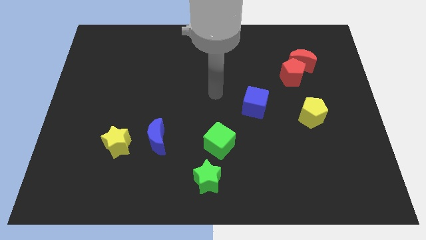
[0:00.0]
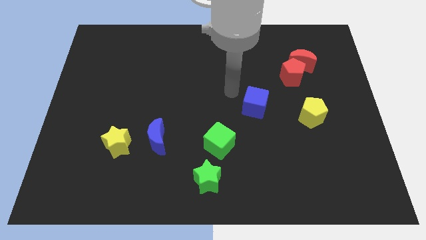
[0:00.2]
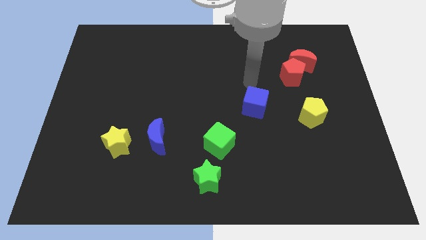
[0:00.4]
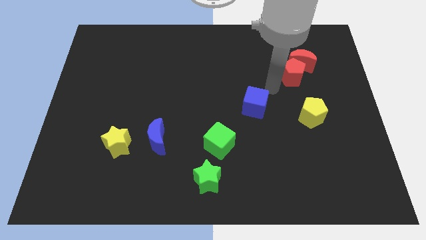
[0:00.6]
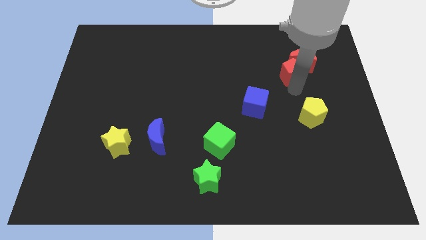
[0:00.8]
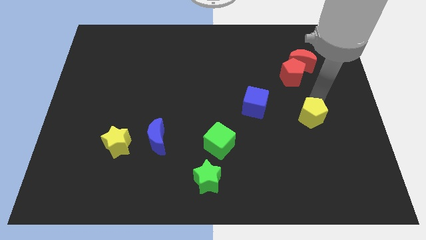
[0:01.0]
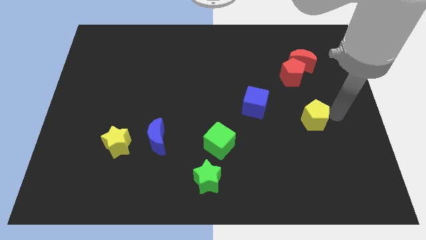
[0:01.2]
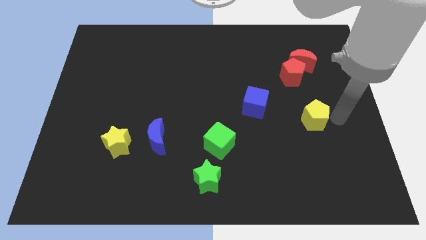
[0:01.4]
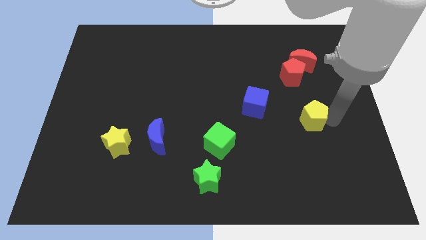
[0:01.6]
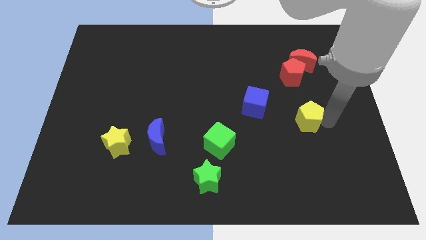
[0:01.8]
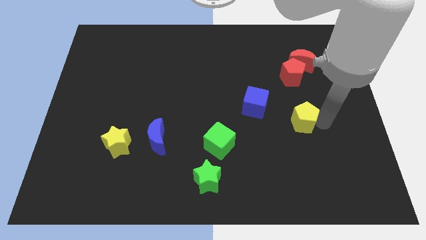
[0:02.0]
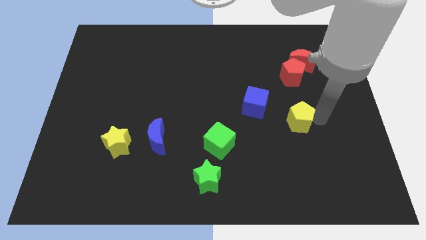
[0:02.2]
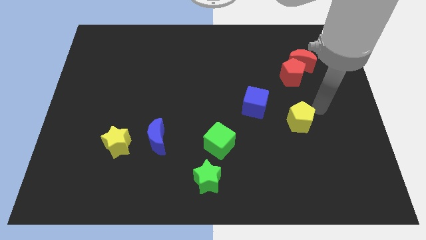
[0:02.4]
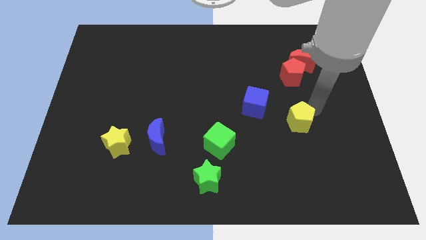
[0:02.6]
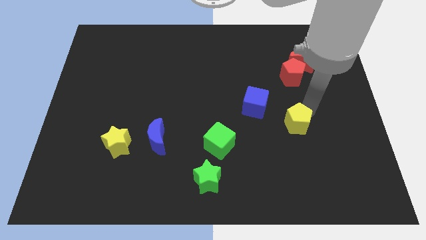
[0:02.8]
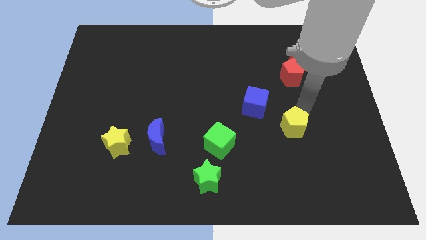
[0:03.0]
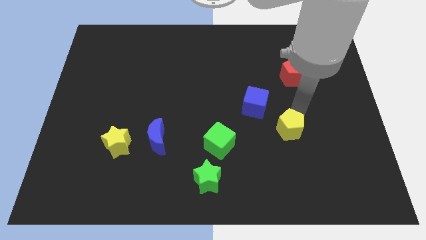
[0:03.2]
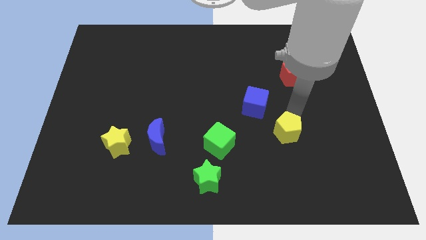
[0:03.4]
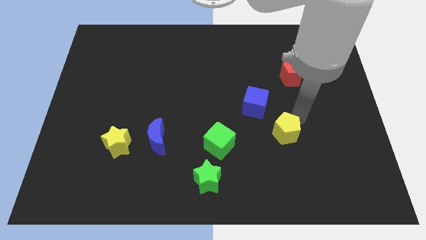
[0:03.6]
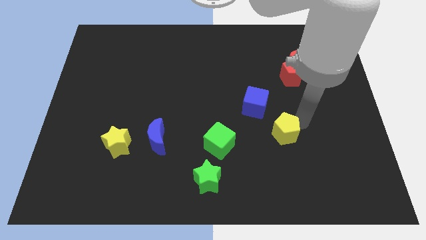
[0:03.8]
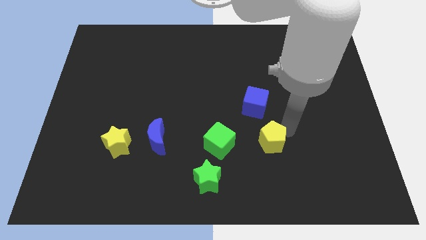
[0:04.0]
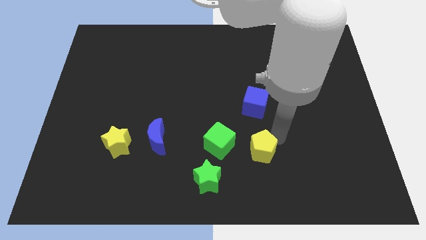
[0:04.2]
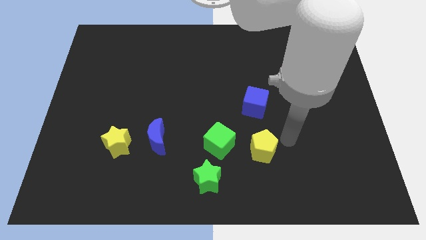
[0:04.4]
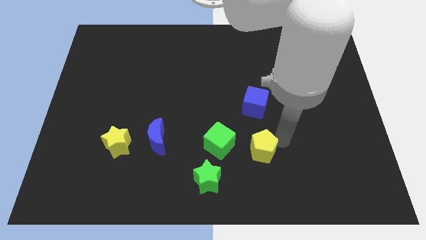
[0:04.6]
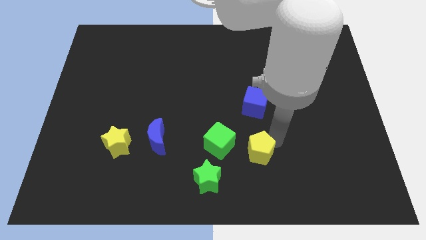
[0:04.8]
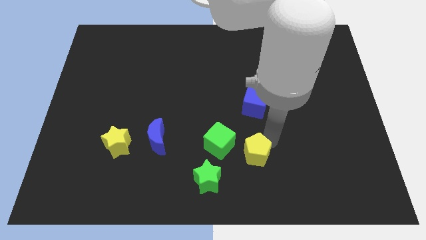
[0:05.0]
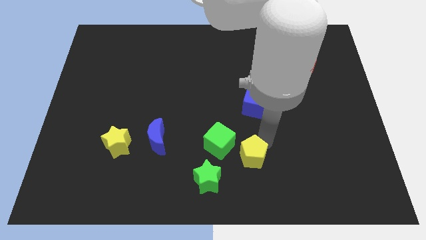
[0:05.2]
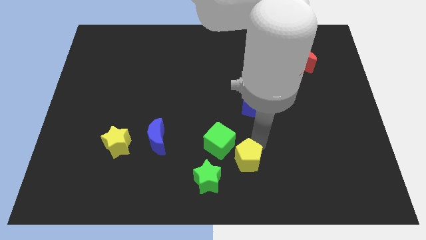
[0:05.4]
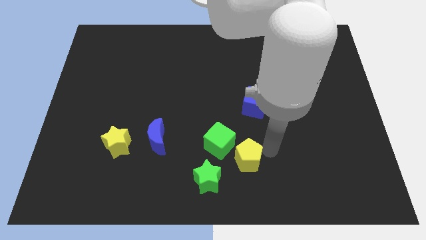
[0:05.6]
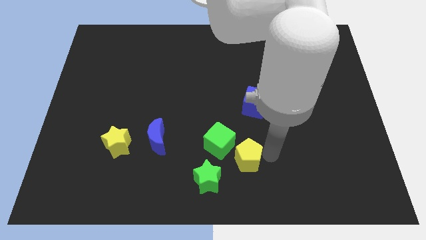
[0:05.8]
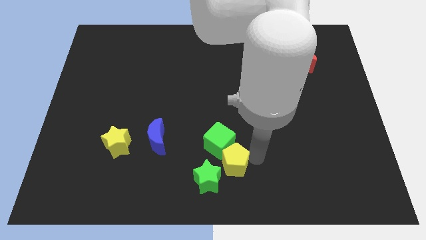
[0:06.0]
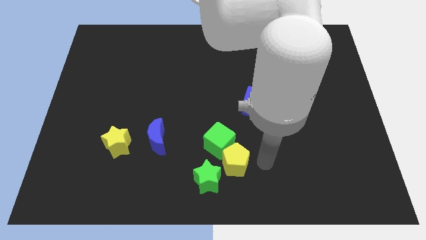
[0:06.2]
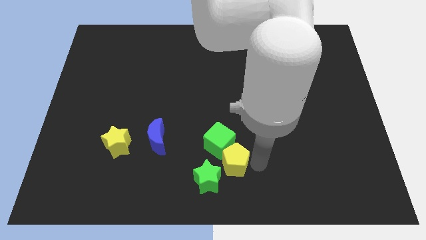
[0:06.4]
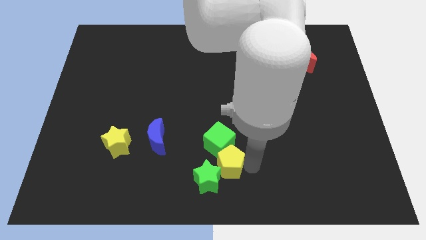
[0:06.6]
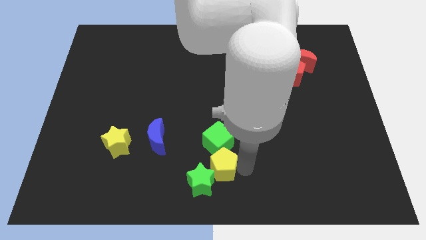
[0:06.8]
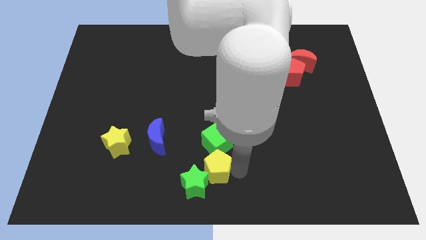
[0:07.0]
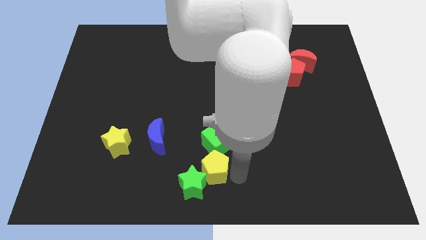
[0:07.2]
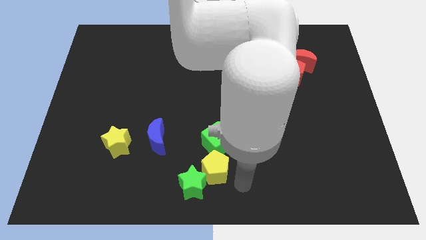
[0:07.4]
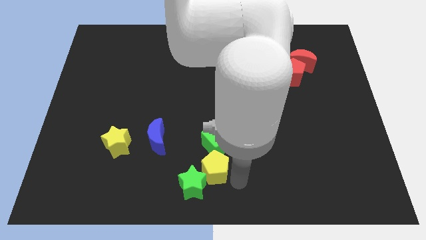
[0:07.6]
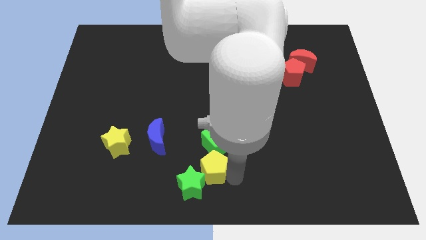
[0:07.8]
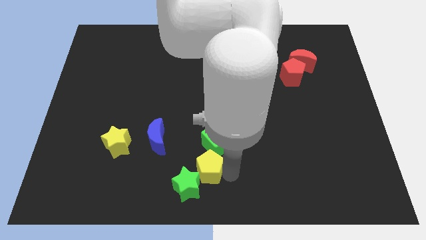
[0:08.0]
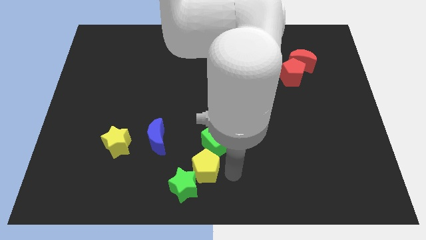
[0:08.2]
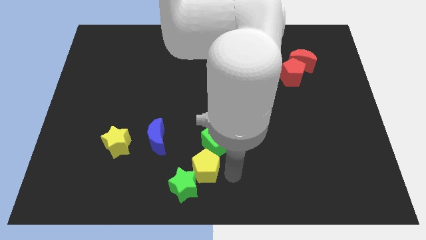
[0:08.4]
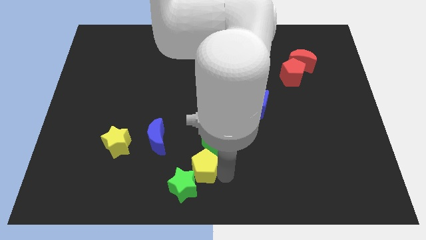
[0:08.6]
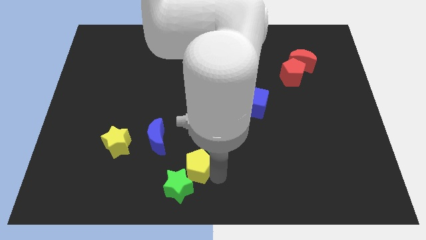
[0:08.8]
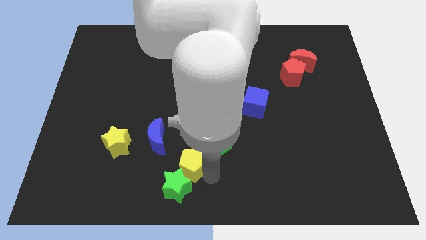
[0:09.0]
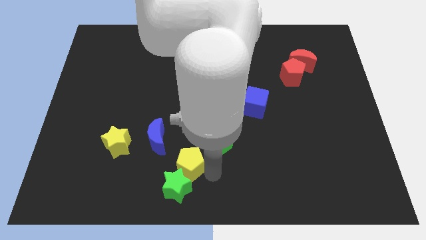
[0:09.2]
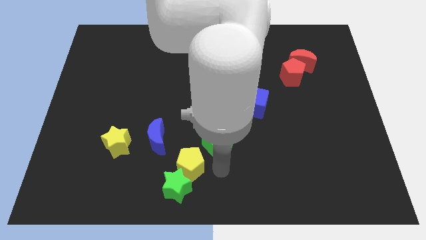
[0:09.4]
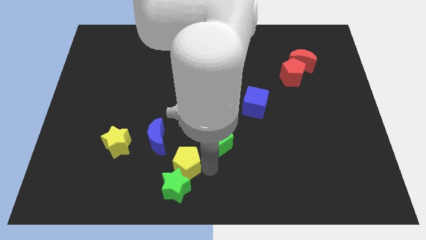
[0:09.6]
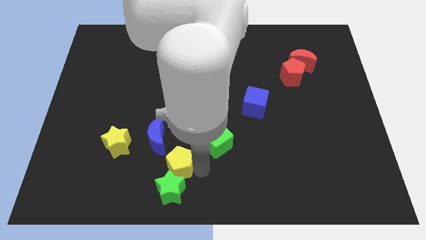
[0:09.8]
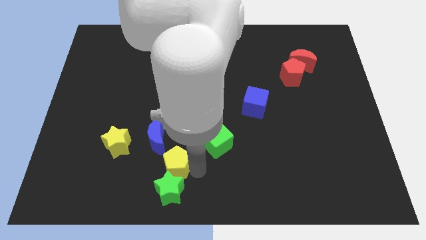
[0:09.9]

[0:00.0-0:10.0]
move the yellow pentagon below the blue moon

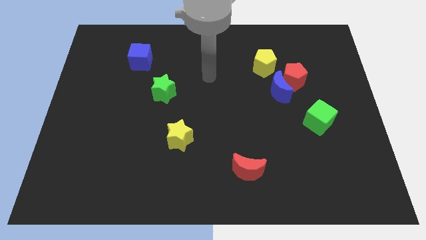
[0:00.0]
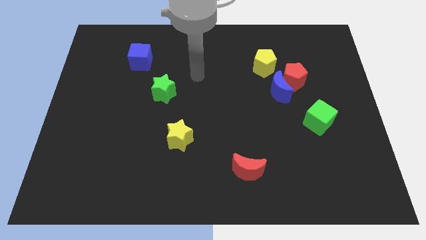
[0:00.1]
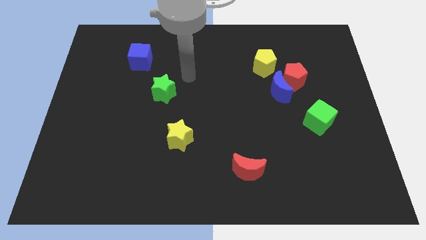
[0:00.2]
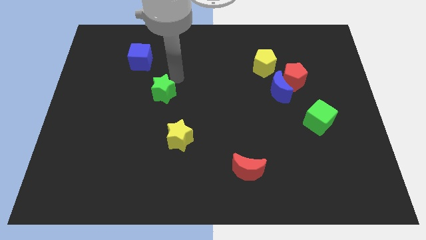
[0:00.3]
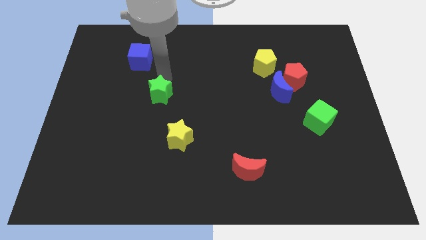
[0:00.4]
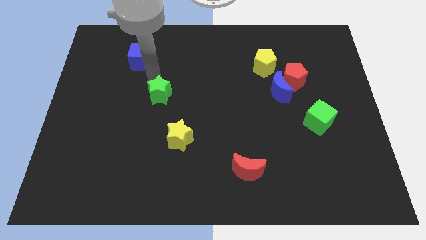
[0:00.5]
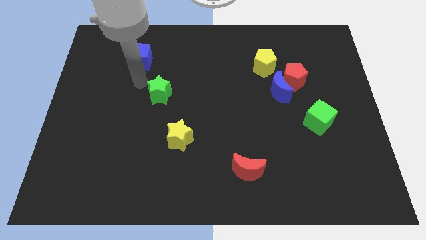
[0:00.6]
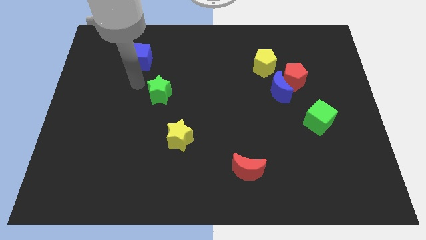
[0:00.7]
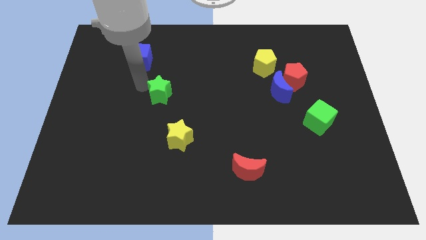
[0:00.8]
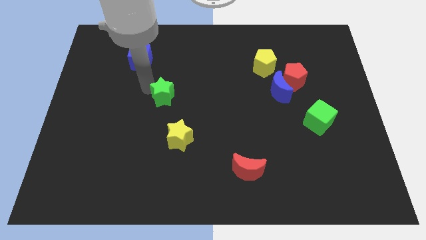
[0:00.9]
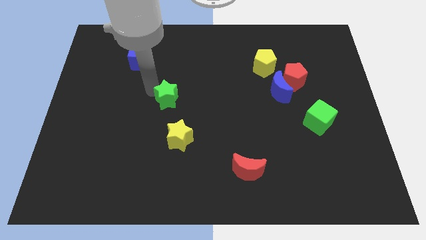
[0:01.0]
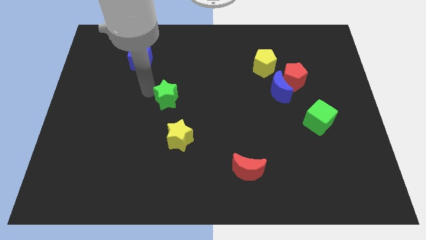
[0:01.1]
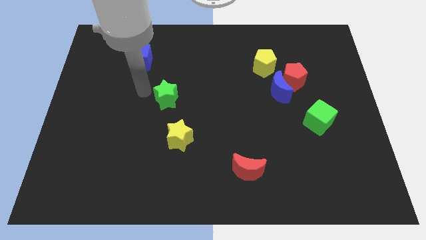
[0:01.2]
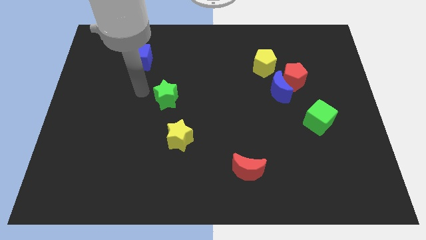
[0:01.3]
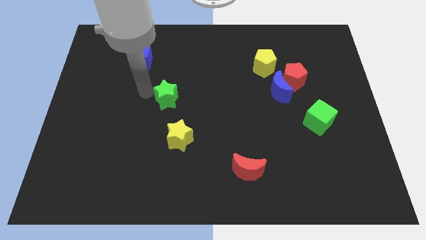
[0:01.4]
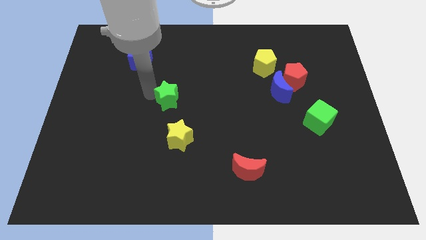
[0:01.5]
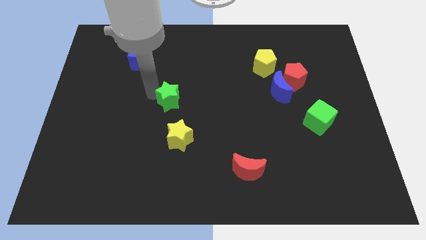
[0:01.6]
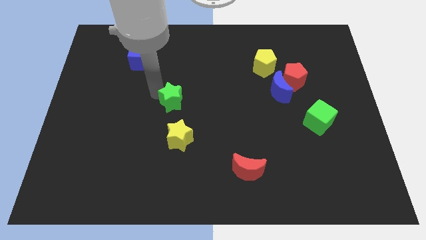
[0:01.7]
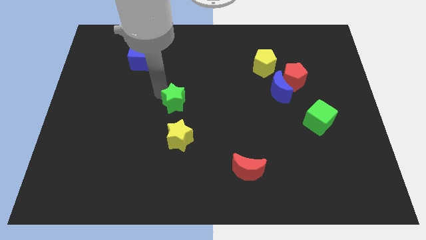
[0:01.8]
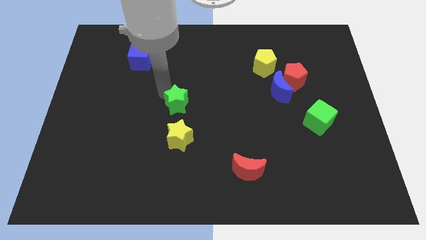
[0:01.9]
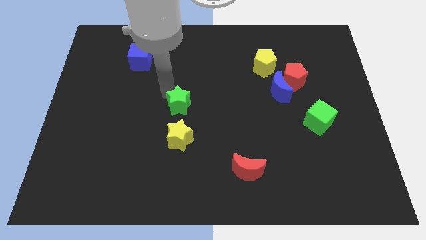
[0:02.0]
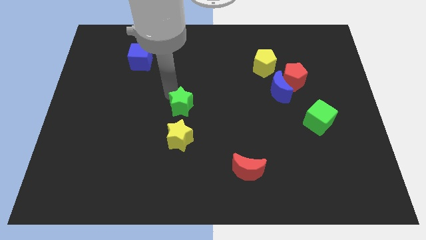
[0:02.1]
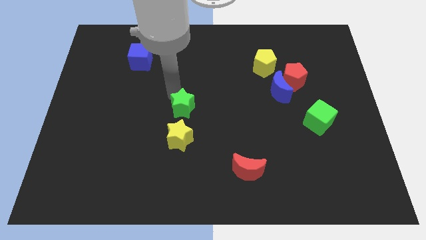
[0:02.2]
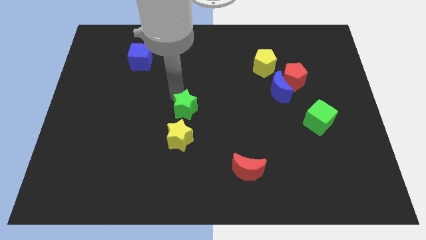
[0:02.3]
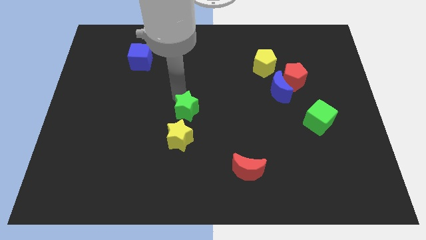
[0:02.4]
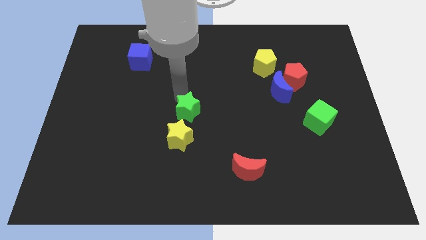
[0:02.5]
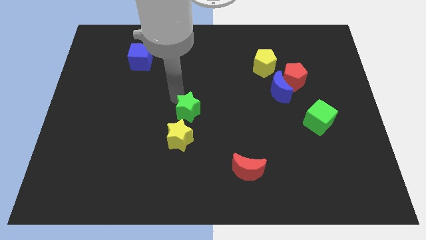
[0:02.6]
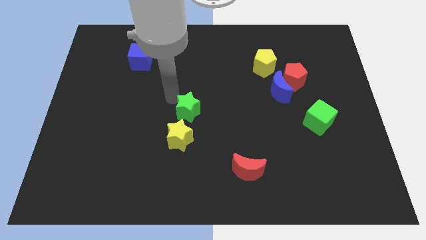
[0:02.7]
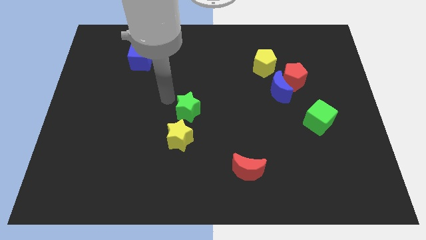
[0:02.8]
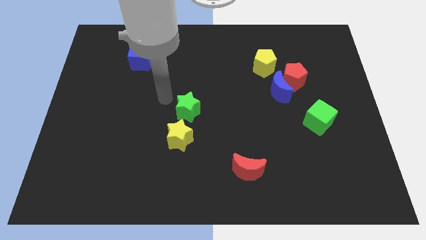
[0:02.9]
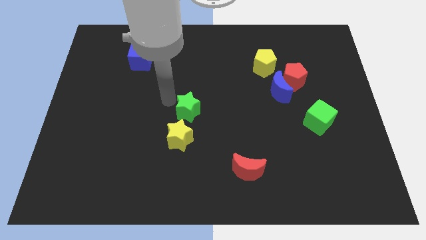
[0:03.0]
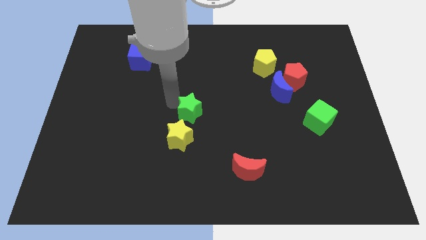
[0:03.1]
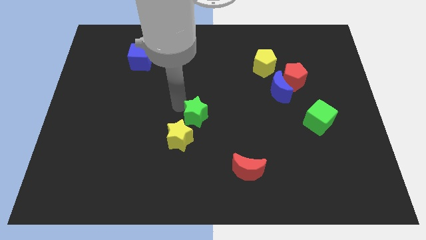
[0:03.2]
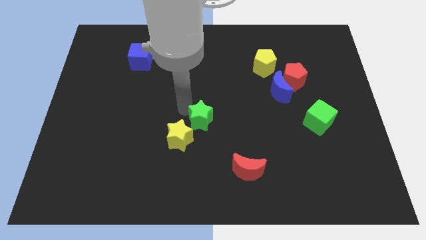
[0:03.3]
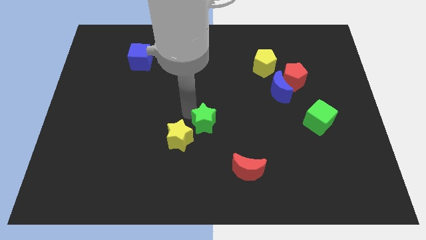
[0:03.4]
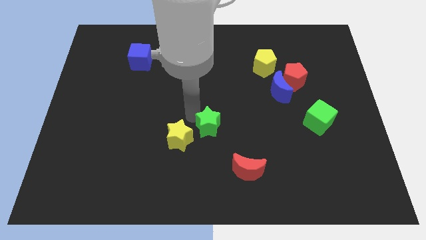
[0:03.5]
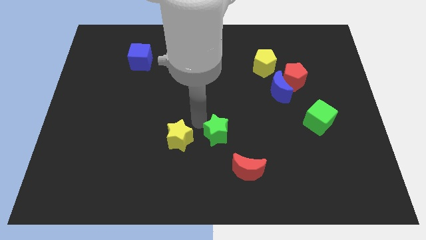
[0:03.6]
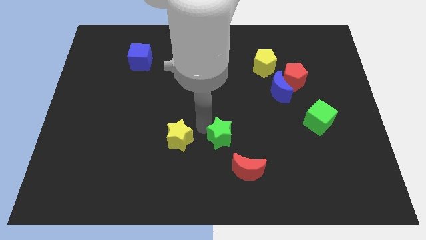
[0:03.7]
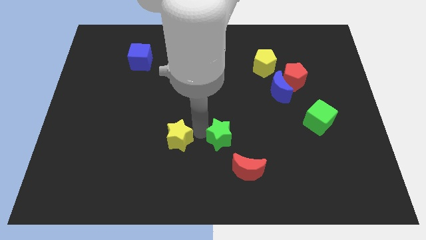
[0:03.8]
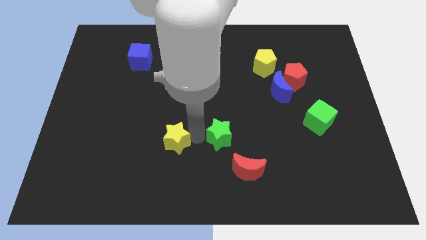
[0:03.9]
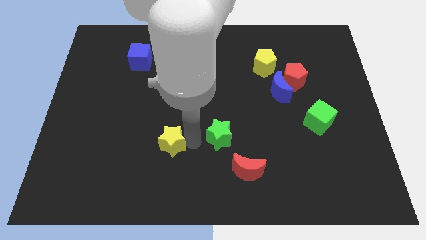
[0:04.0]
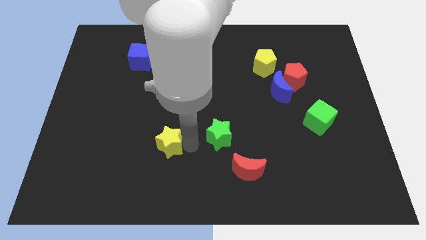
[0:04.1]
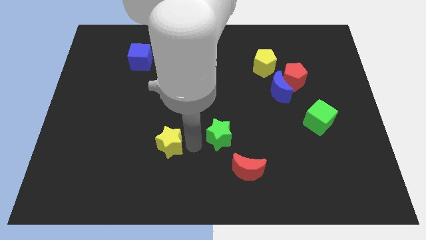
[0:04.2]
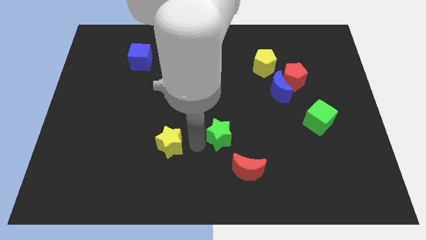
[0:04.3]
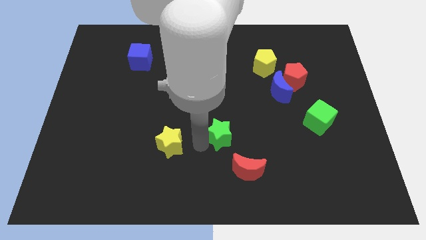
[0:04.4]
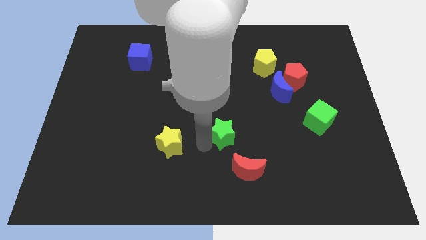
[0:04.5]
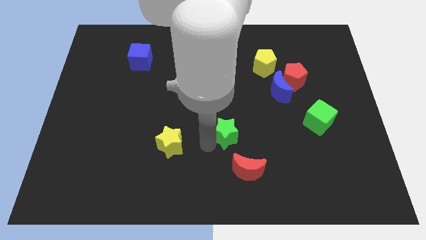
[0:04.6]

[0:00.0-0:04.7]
slide the green star to the top of the red moon
